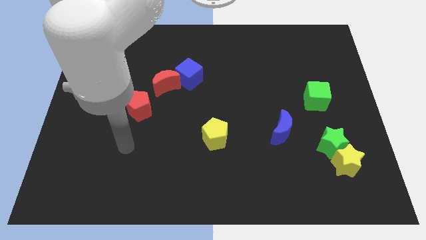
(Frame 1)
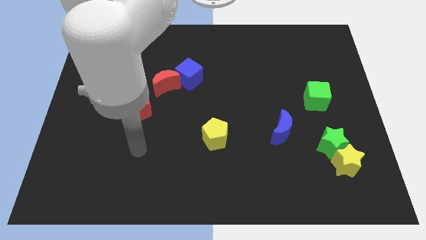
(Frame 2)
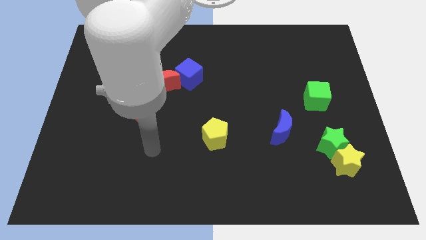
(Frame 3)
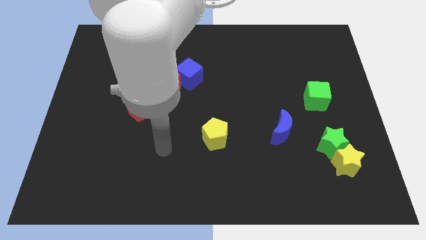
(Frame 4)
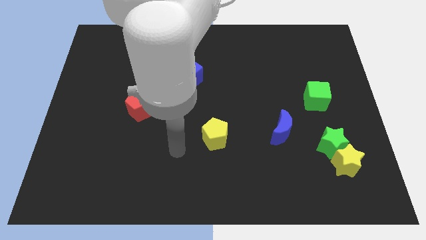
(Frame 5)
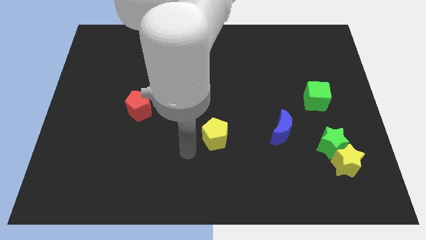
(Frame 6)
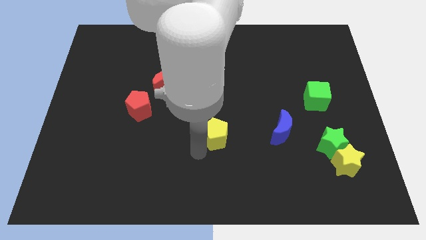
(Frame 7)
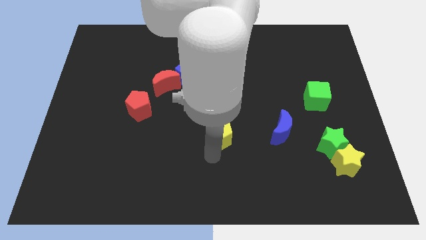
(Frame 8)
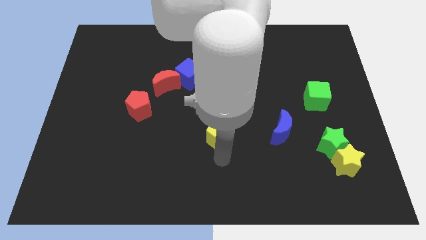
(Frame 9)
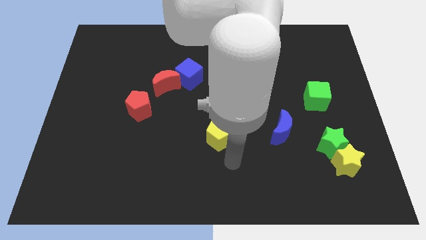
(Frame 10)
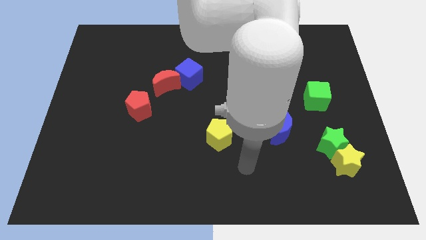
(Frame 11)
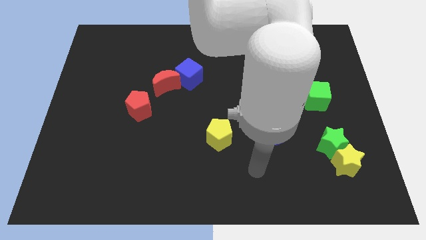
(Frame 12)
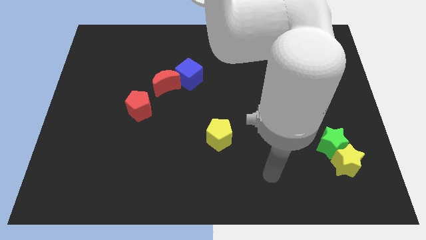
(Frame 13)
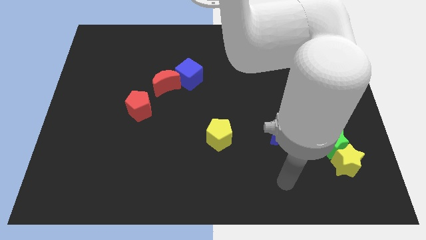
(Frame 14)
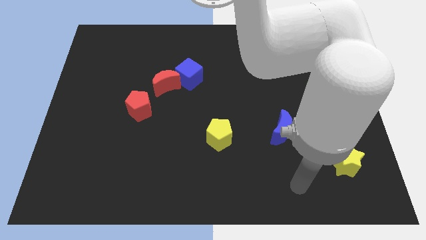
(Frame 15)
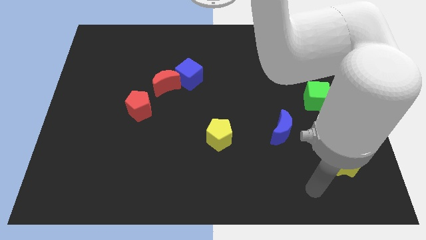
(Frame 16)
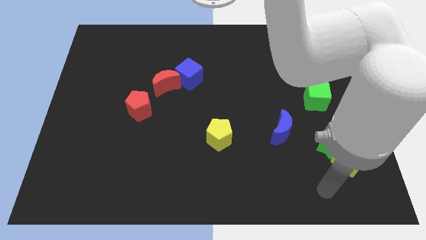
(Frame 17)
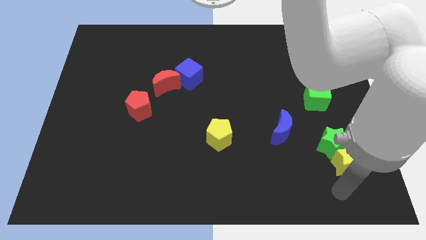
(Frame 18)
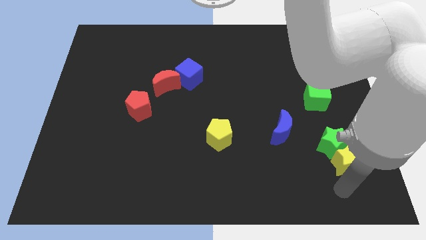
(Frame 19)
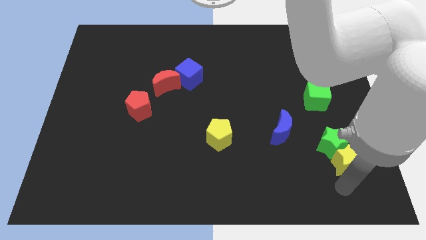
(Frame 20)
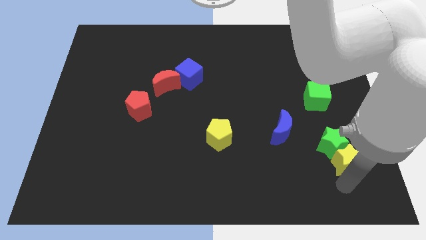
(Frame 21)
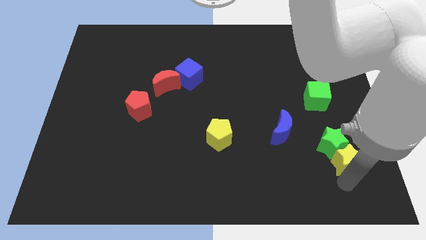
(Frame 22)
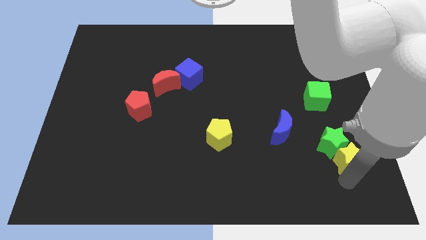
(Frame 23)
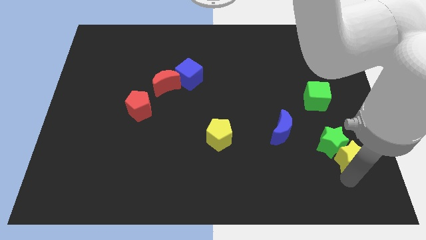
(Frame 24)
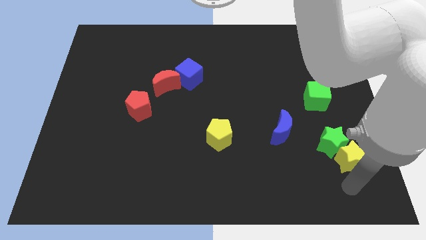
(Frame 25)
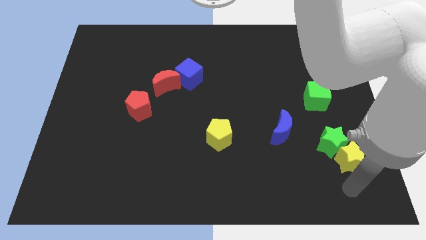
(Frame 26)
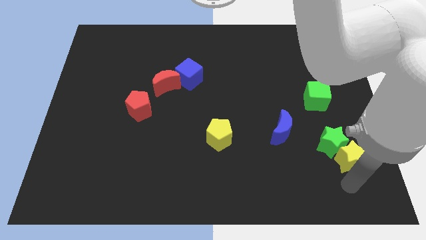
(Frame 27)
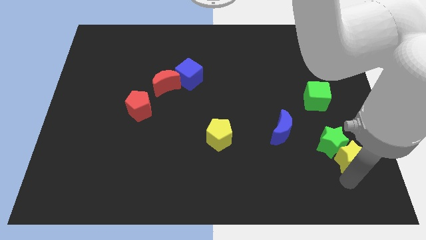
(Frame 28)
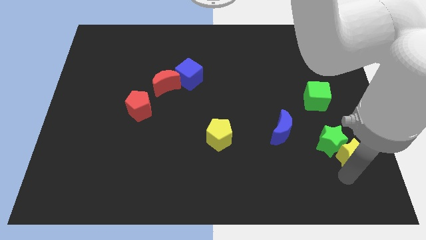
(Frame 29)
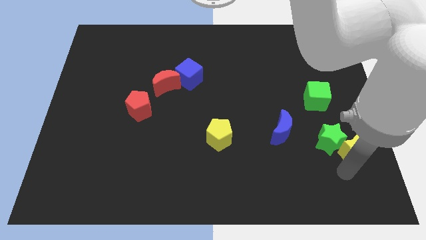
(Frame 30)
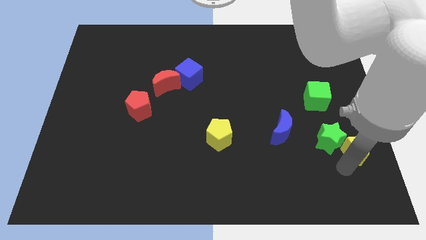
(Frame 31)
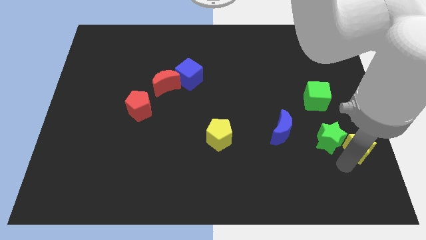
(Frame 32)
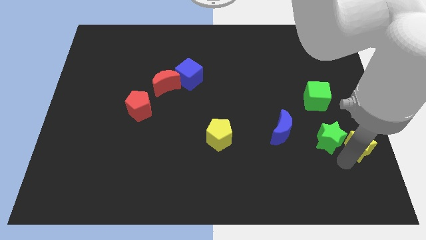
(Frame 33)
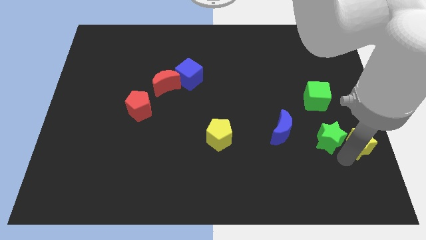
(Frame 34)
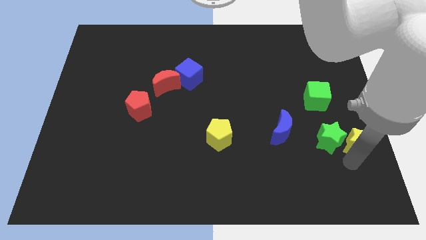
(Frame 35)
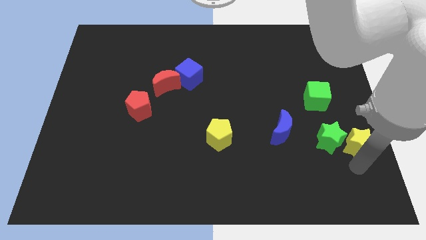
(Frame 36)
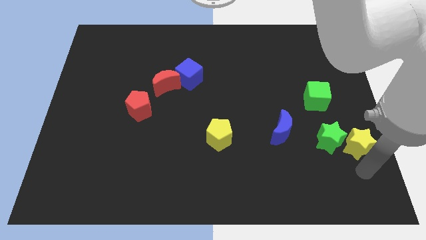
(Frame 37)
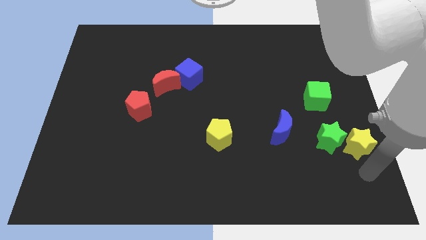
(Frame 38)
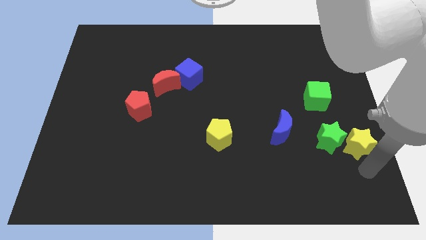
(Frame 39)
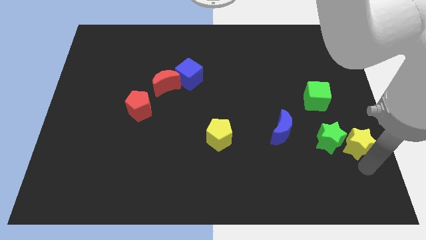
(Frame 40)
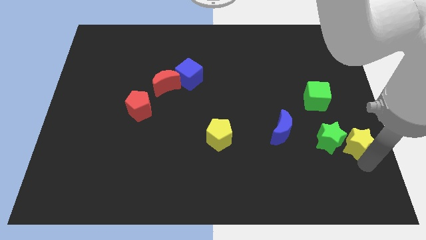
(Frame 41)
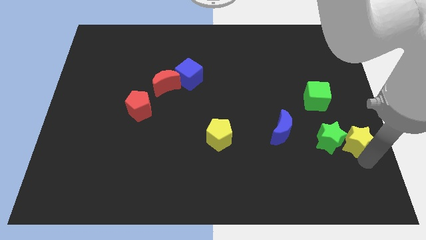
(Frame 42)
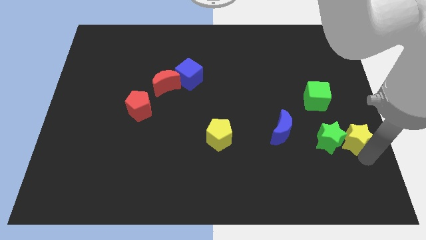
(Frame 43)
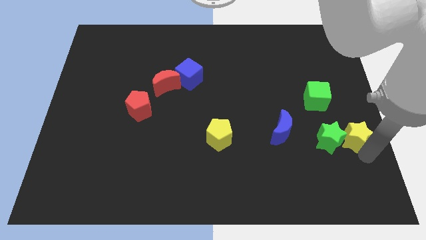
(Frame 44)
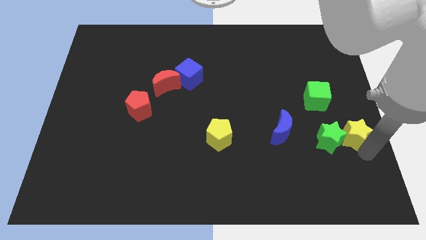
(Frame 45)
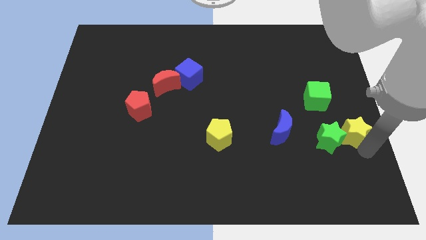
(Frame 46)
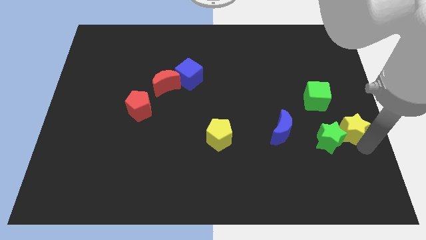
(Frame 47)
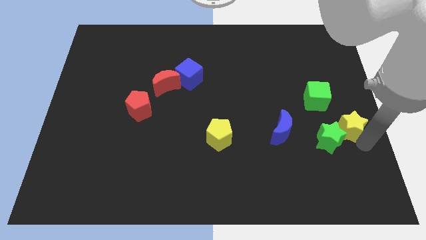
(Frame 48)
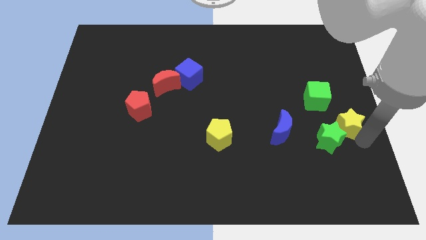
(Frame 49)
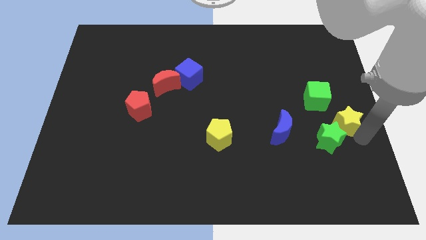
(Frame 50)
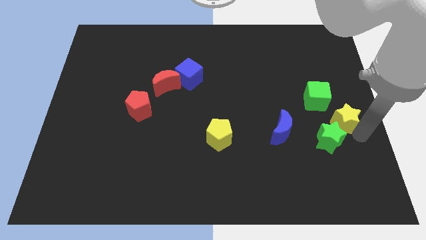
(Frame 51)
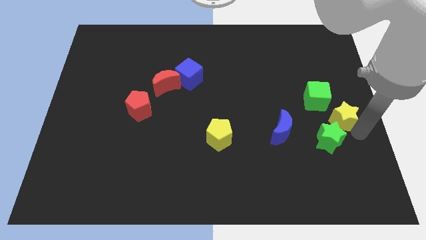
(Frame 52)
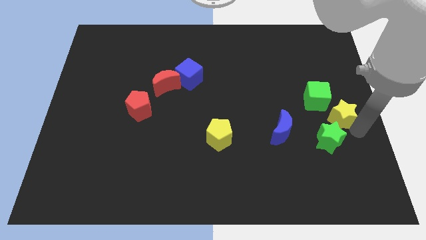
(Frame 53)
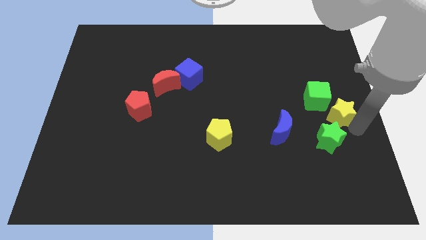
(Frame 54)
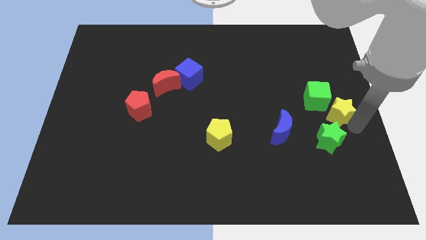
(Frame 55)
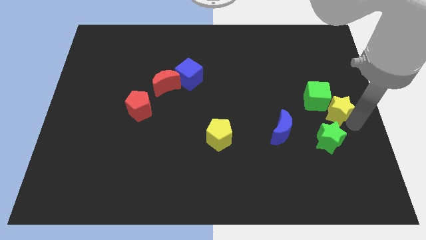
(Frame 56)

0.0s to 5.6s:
move the yellow star towards the green cube

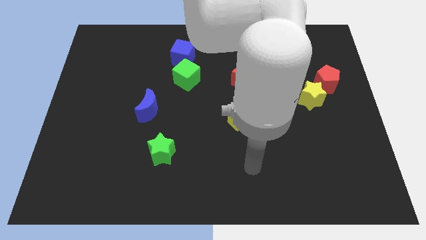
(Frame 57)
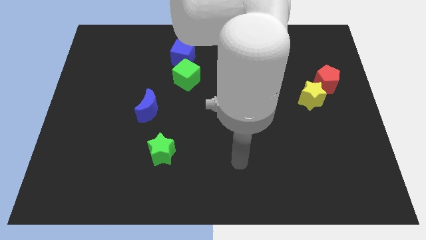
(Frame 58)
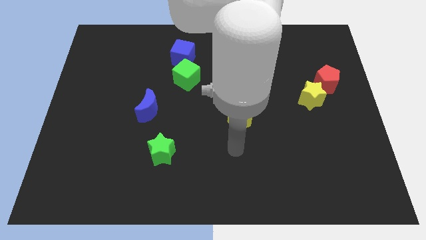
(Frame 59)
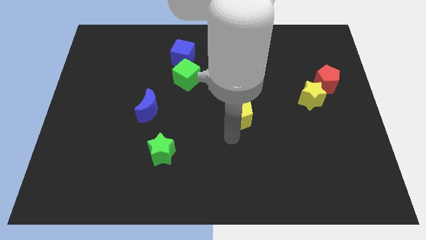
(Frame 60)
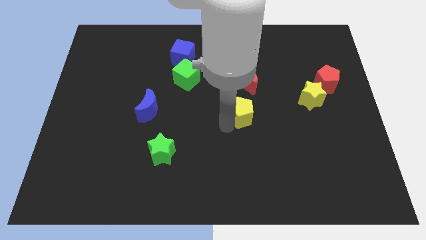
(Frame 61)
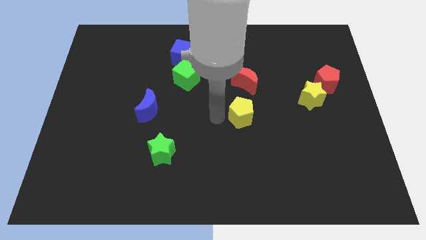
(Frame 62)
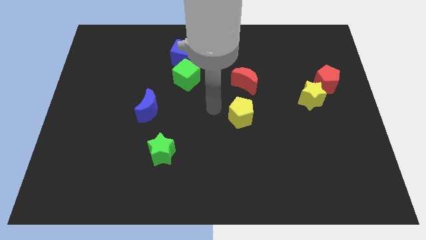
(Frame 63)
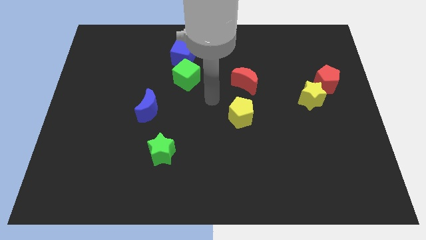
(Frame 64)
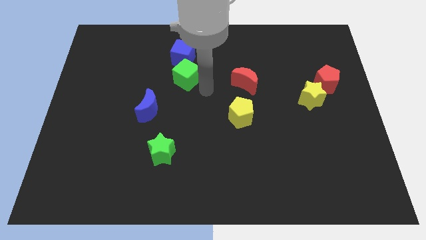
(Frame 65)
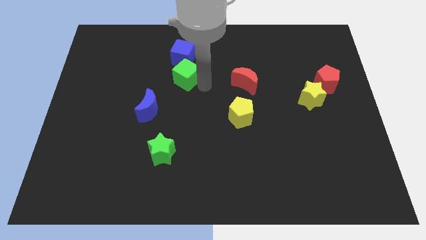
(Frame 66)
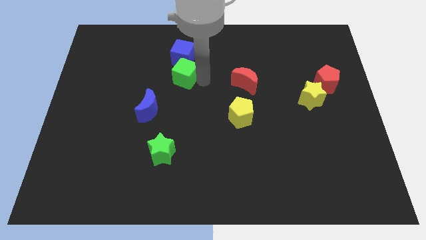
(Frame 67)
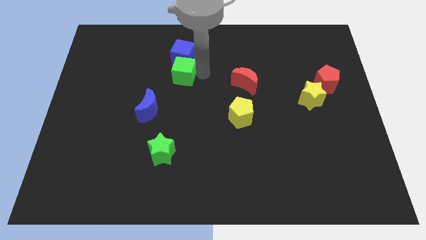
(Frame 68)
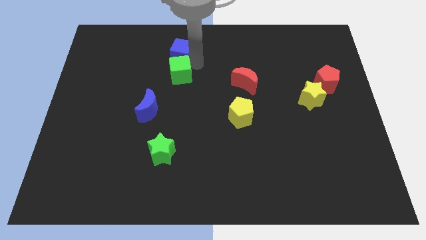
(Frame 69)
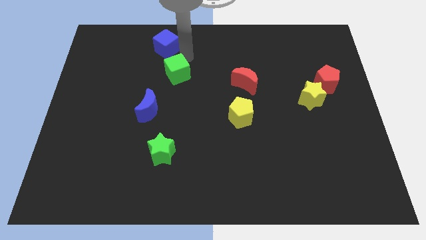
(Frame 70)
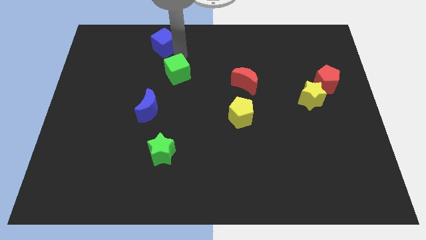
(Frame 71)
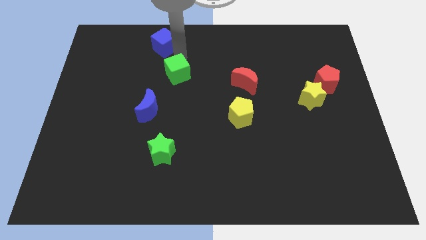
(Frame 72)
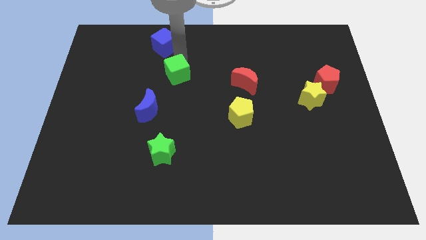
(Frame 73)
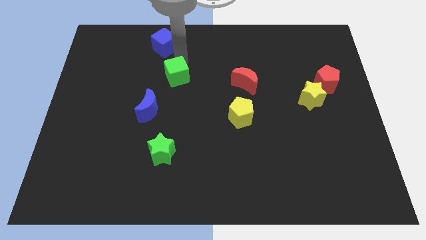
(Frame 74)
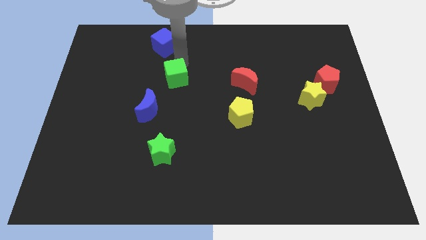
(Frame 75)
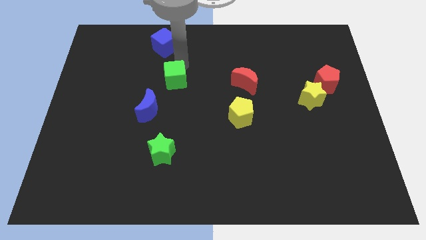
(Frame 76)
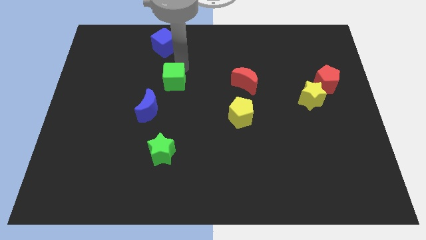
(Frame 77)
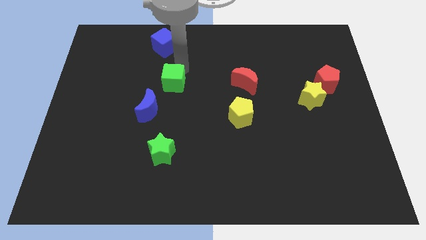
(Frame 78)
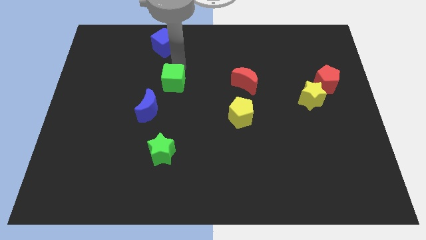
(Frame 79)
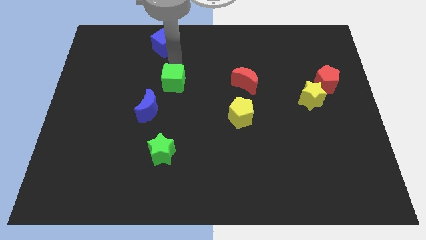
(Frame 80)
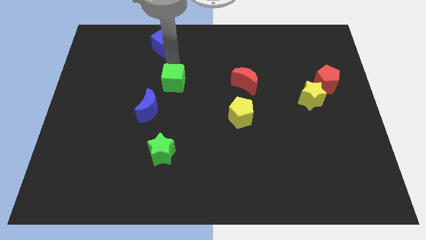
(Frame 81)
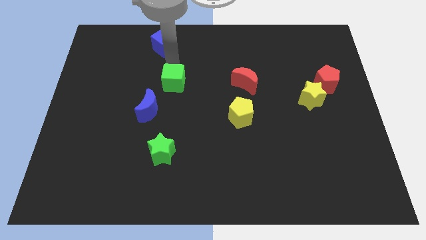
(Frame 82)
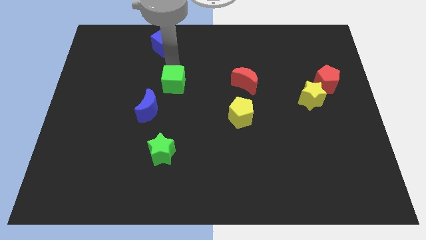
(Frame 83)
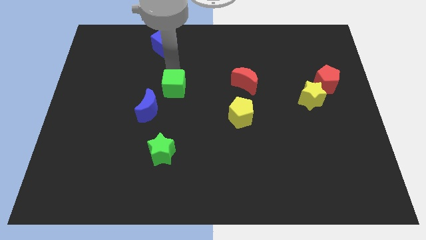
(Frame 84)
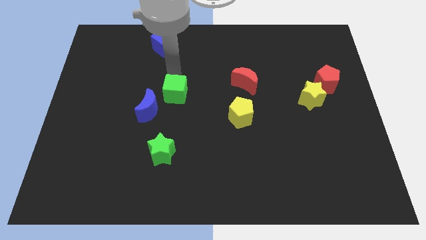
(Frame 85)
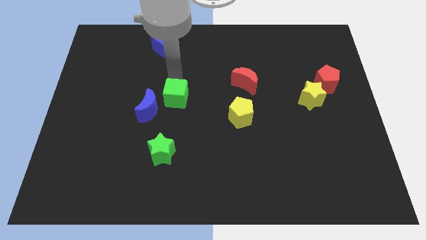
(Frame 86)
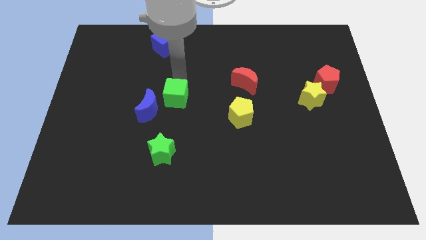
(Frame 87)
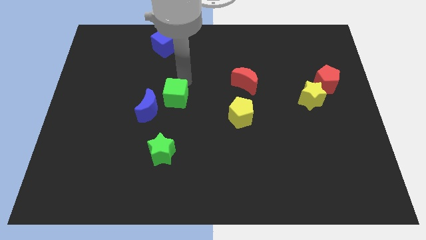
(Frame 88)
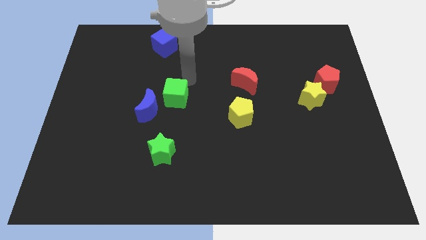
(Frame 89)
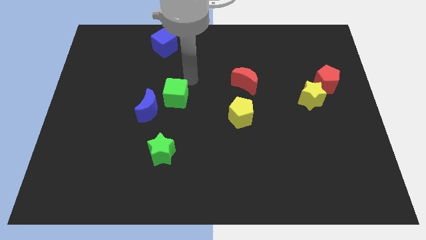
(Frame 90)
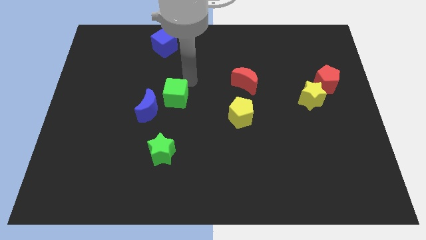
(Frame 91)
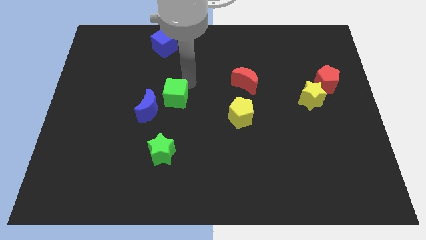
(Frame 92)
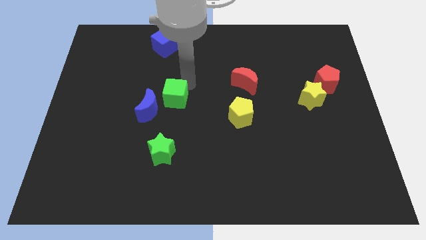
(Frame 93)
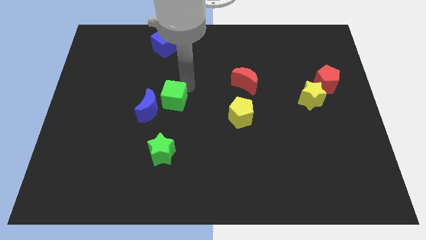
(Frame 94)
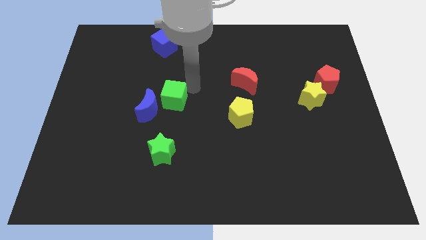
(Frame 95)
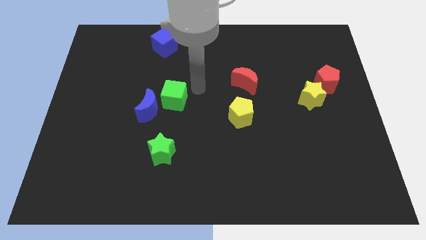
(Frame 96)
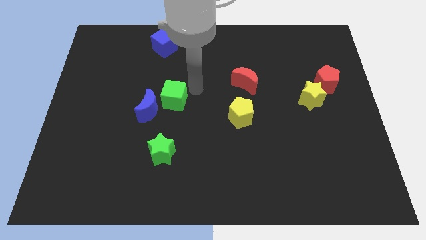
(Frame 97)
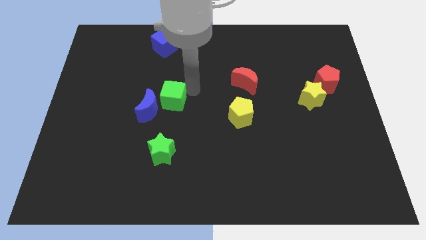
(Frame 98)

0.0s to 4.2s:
put the green cube next to the blue moon
